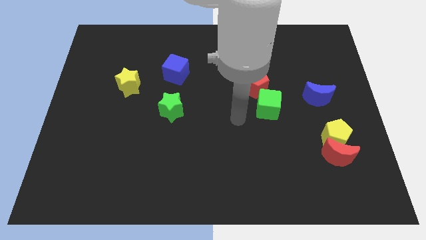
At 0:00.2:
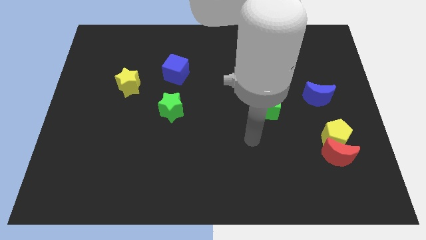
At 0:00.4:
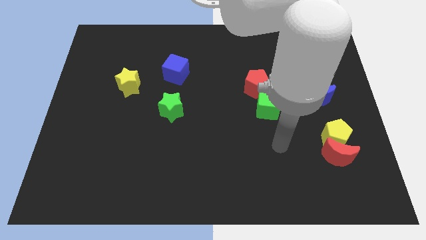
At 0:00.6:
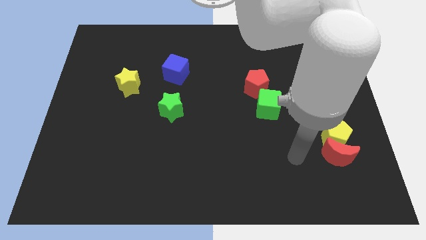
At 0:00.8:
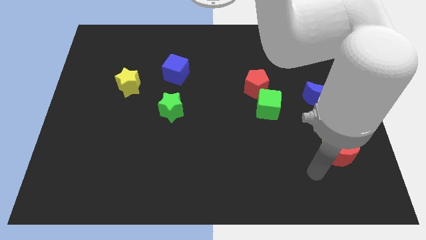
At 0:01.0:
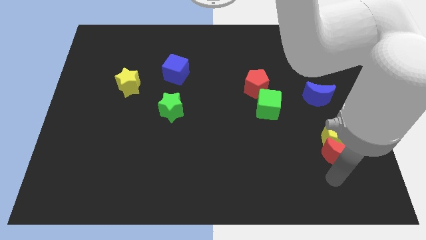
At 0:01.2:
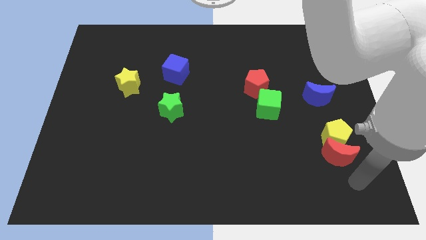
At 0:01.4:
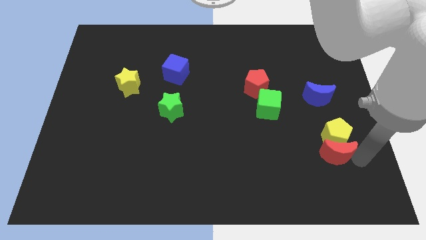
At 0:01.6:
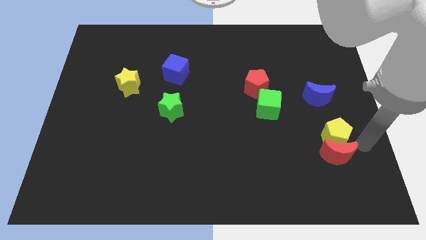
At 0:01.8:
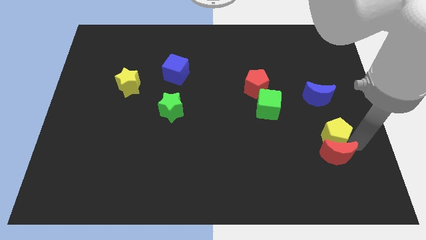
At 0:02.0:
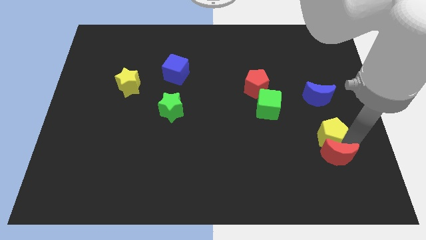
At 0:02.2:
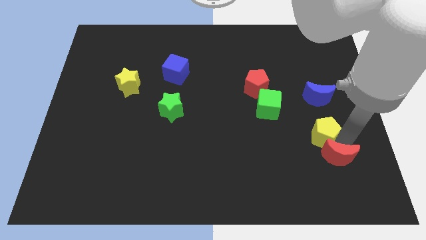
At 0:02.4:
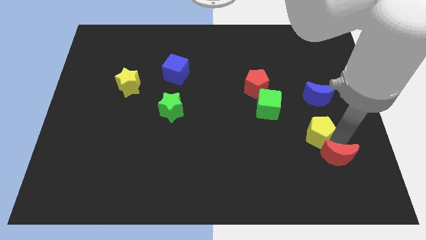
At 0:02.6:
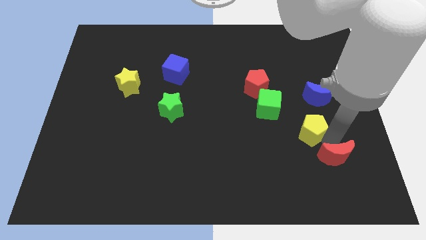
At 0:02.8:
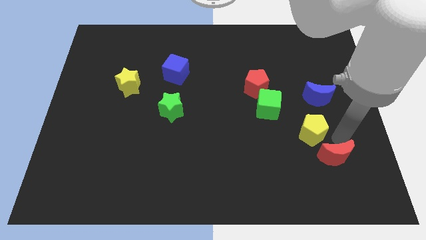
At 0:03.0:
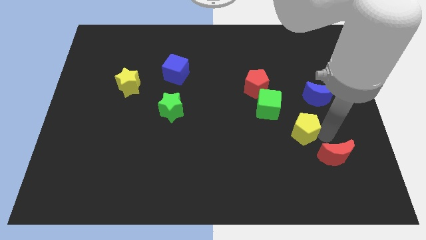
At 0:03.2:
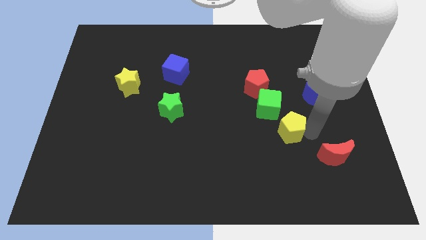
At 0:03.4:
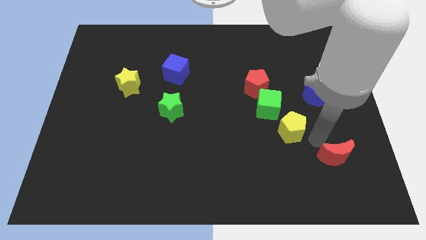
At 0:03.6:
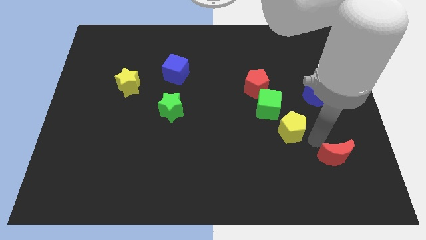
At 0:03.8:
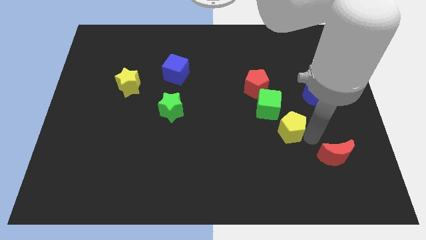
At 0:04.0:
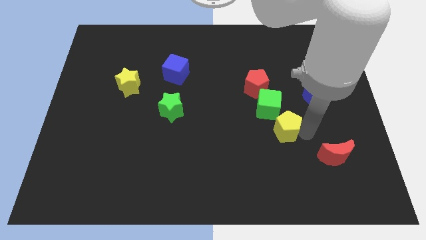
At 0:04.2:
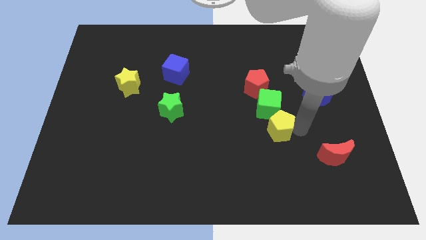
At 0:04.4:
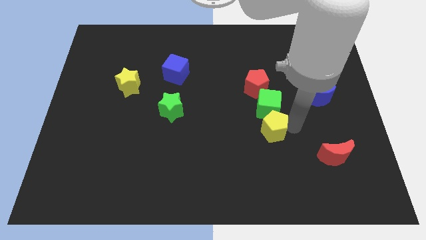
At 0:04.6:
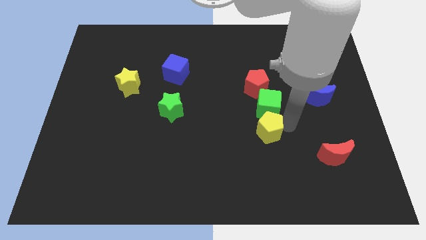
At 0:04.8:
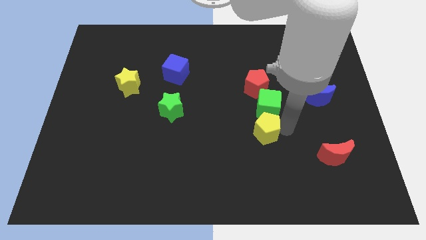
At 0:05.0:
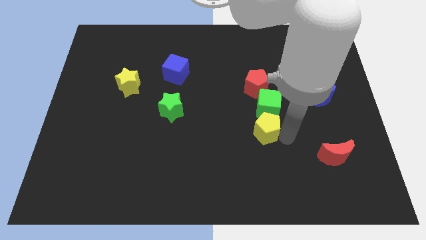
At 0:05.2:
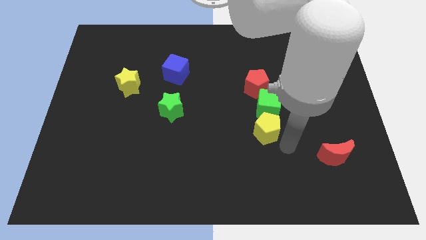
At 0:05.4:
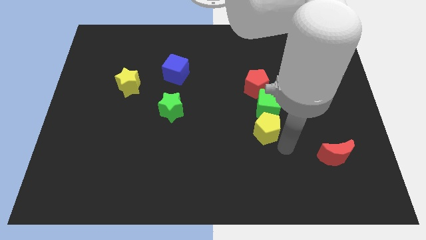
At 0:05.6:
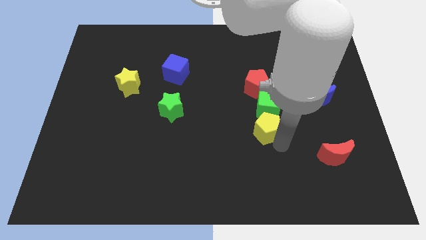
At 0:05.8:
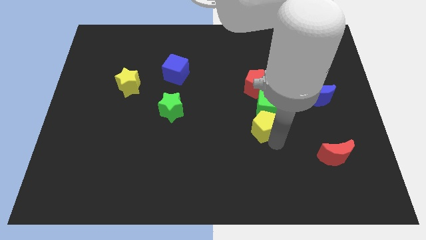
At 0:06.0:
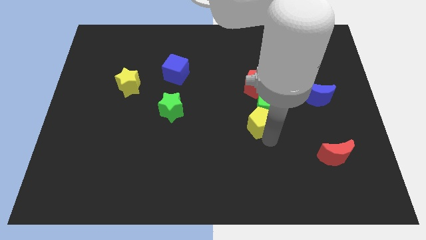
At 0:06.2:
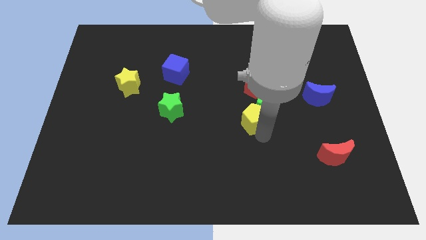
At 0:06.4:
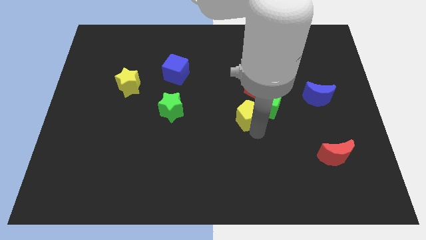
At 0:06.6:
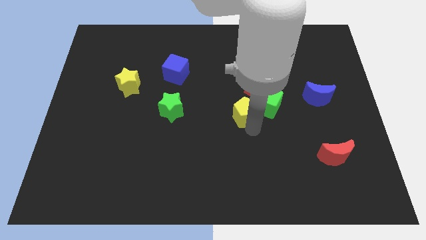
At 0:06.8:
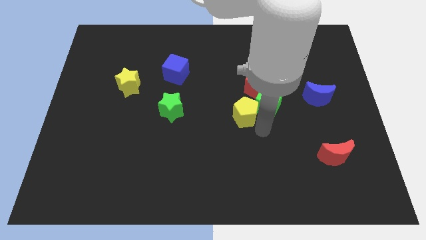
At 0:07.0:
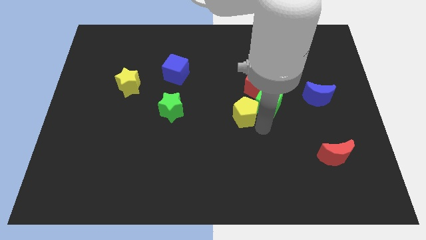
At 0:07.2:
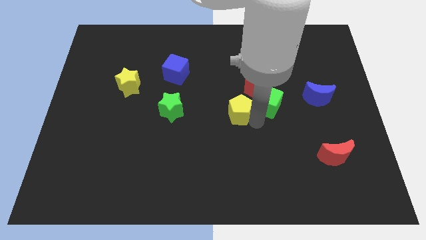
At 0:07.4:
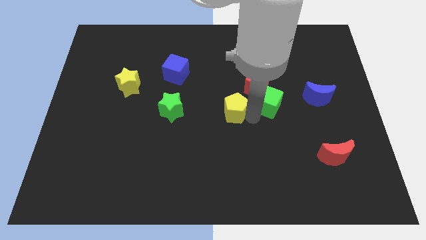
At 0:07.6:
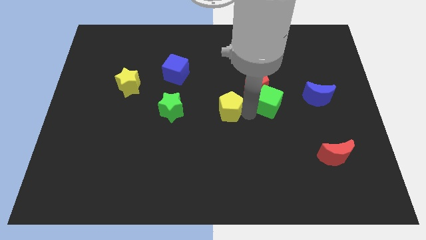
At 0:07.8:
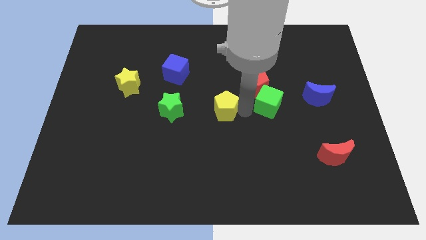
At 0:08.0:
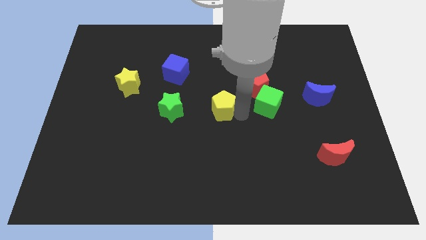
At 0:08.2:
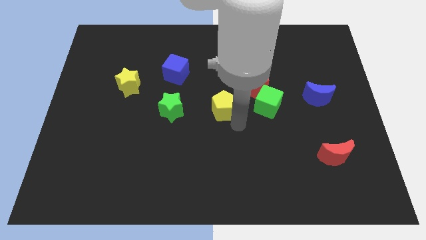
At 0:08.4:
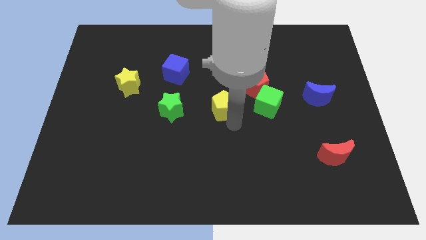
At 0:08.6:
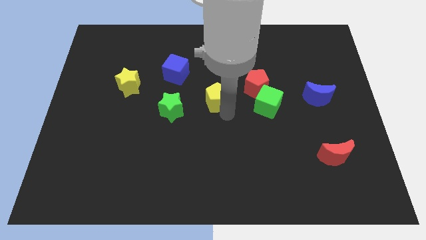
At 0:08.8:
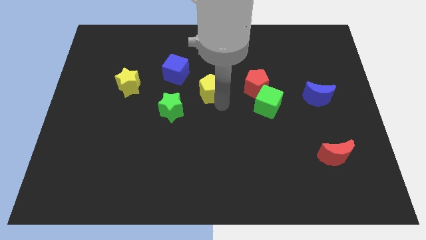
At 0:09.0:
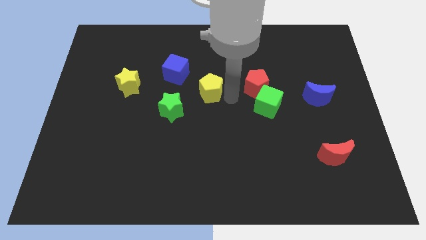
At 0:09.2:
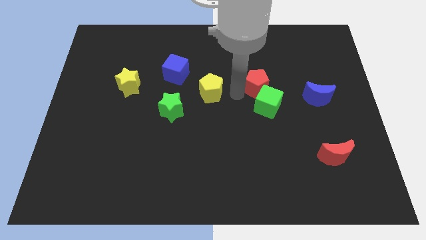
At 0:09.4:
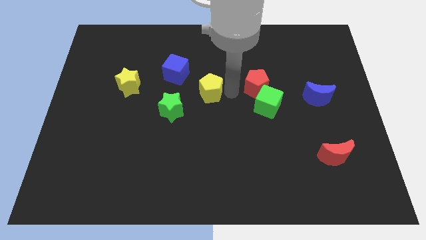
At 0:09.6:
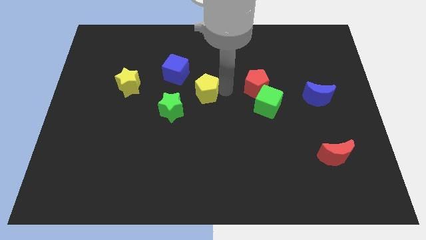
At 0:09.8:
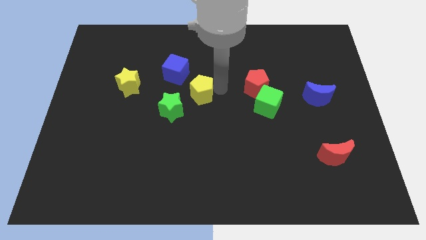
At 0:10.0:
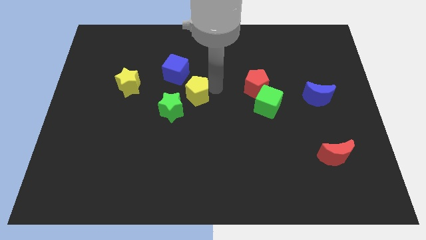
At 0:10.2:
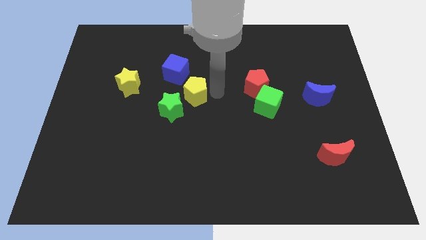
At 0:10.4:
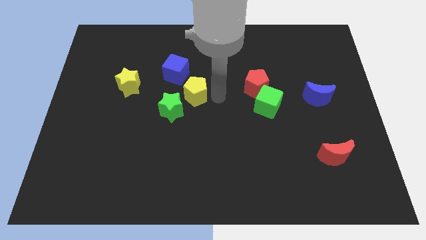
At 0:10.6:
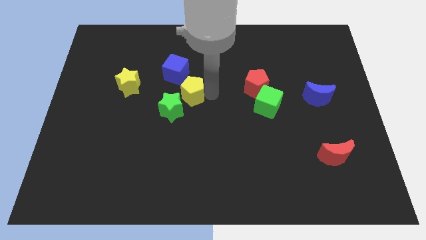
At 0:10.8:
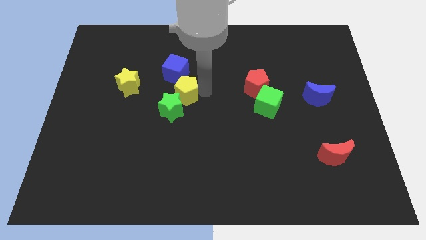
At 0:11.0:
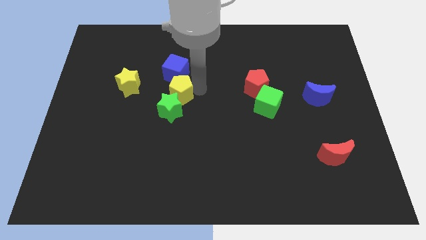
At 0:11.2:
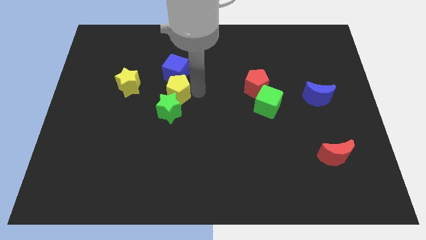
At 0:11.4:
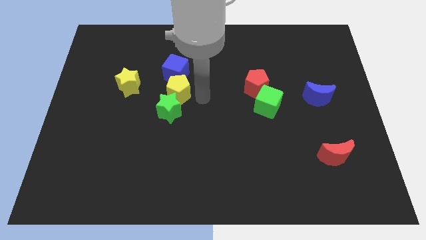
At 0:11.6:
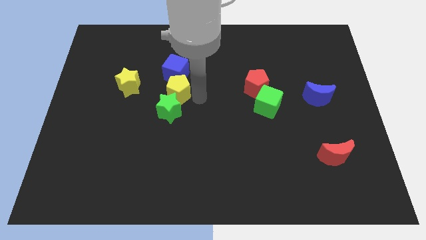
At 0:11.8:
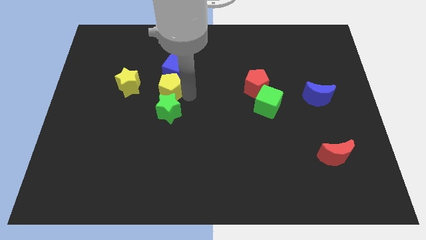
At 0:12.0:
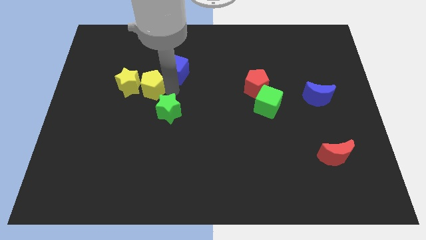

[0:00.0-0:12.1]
move the yellow pentagon to the yellow star

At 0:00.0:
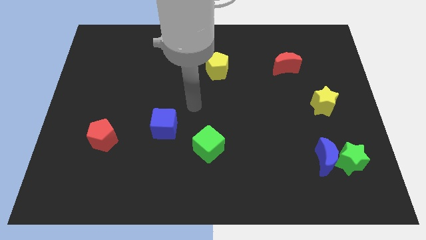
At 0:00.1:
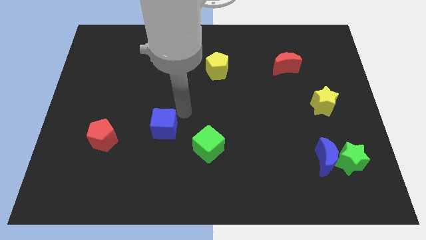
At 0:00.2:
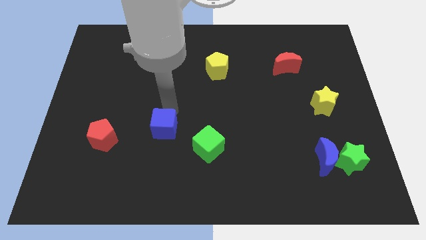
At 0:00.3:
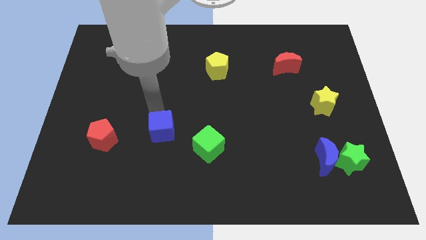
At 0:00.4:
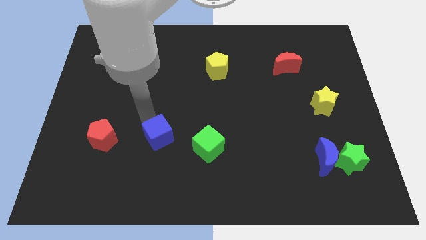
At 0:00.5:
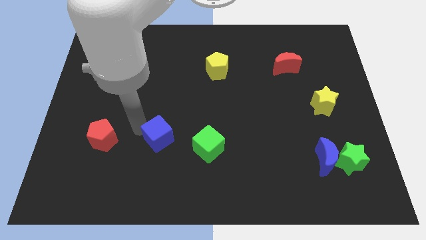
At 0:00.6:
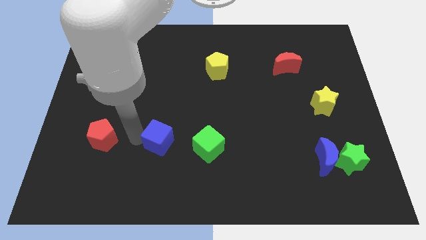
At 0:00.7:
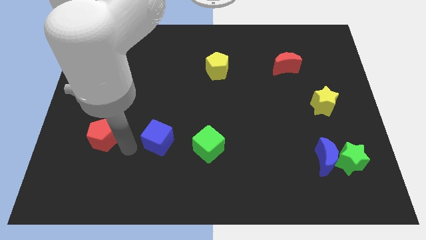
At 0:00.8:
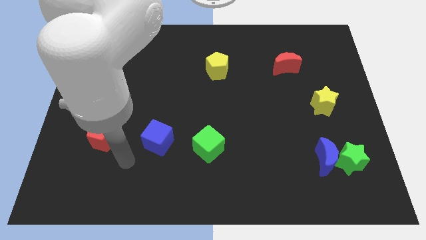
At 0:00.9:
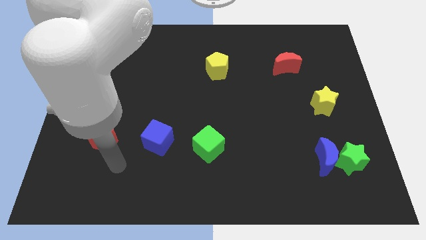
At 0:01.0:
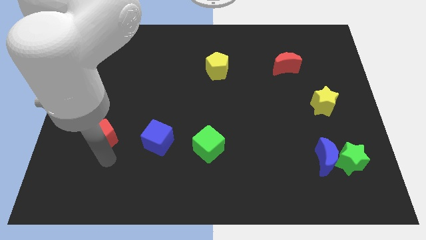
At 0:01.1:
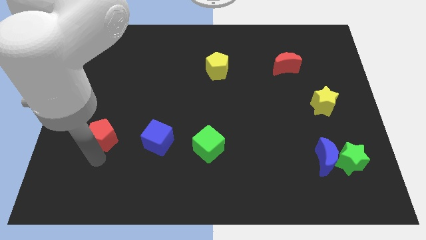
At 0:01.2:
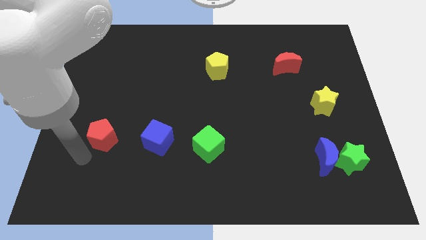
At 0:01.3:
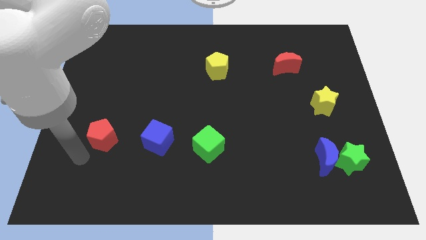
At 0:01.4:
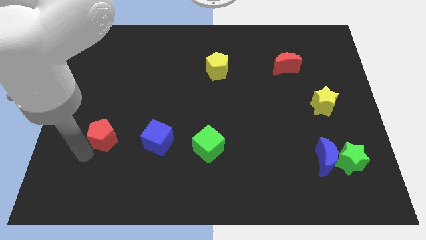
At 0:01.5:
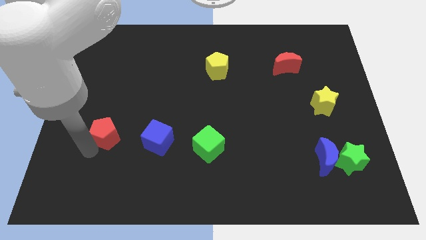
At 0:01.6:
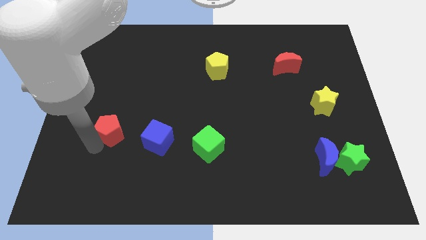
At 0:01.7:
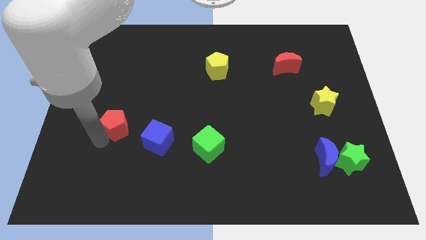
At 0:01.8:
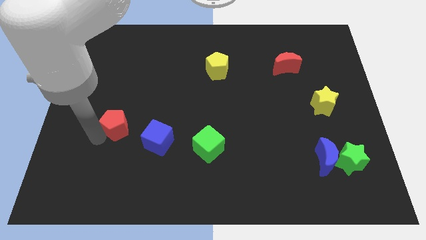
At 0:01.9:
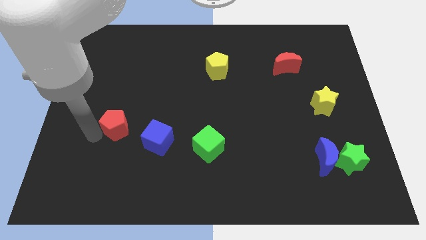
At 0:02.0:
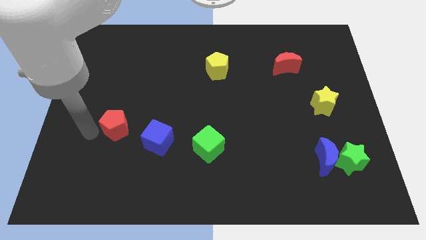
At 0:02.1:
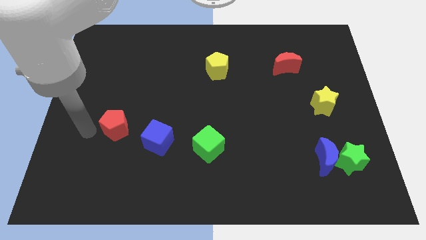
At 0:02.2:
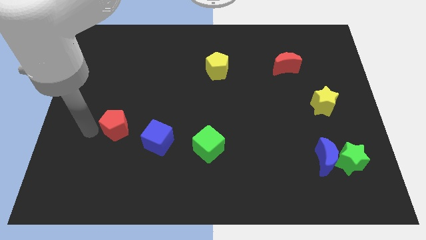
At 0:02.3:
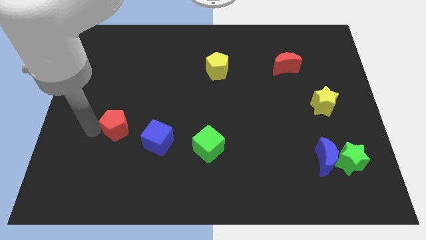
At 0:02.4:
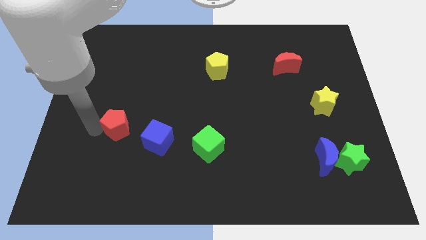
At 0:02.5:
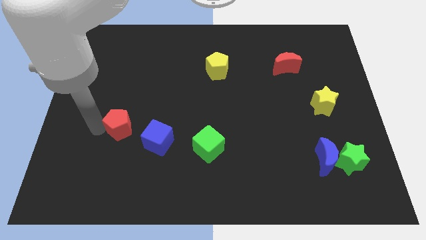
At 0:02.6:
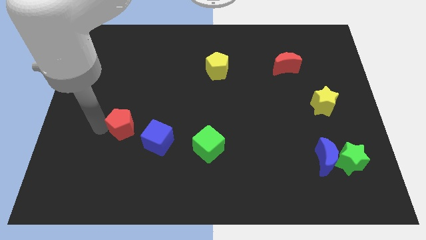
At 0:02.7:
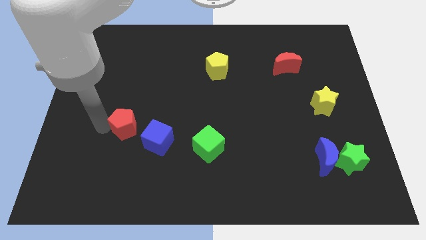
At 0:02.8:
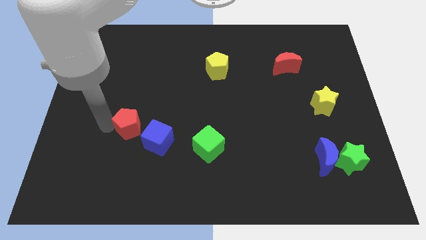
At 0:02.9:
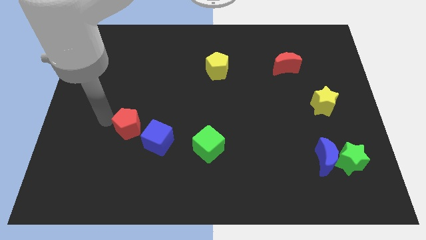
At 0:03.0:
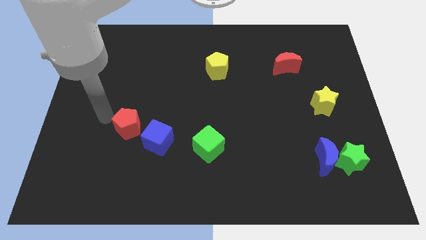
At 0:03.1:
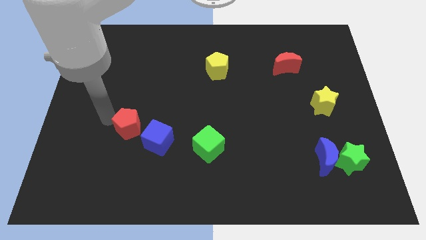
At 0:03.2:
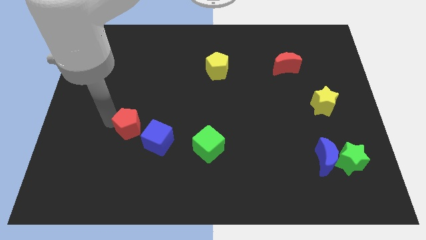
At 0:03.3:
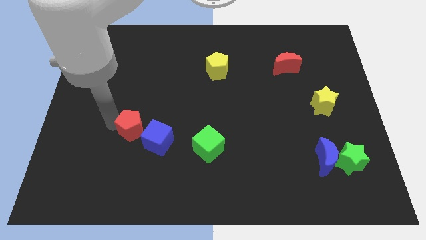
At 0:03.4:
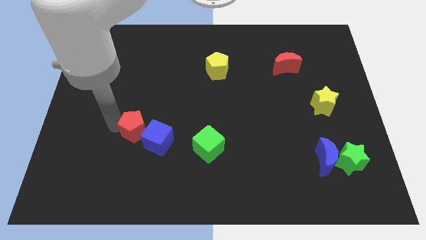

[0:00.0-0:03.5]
put the red pentagon to the blue cube
